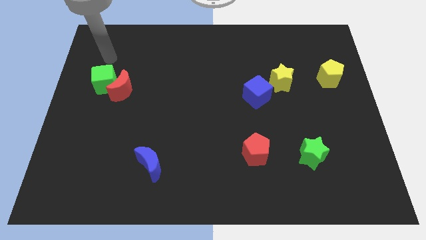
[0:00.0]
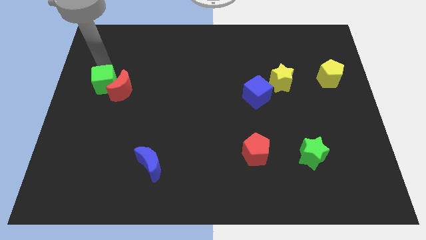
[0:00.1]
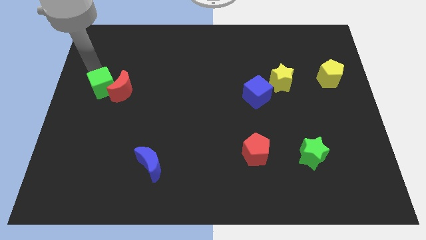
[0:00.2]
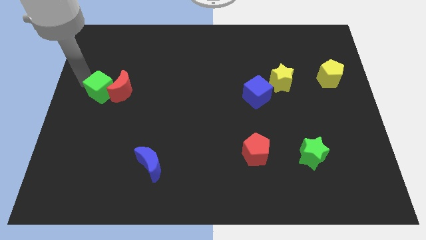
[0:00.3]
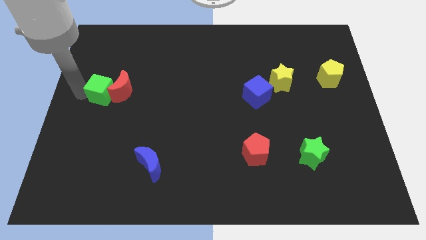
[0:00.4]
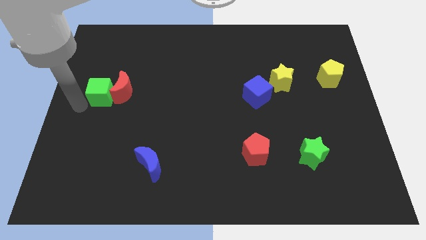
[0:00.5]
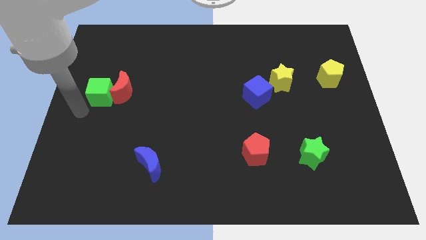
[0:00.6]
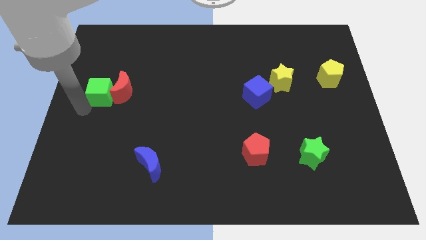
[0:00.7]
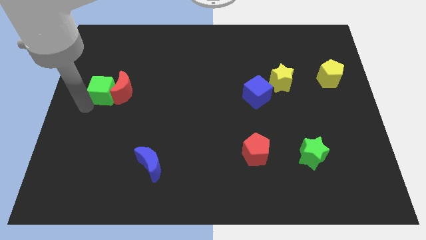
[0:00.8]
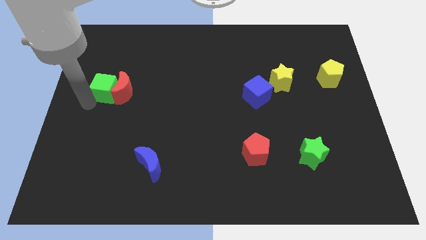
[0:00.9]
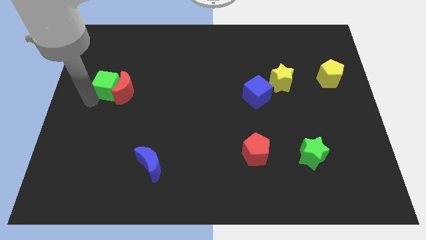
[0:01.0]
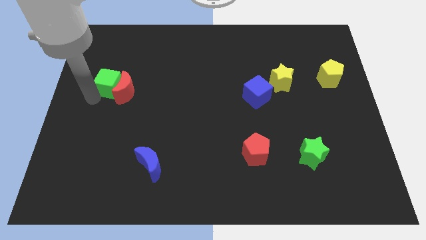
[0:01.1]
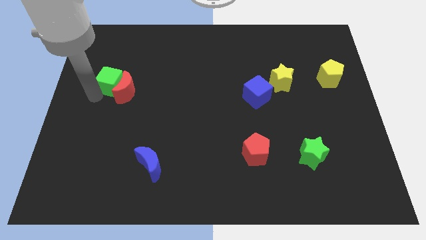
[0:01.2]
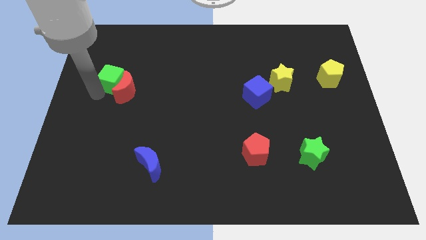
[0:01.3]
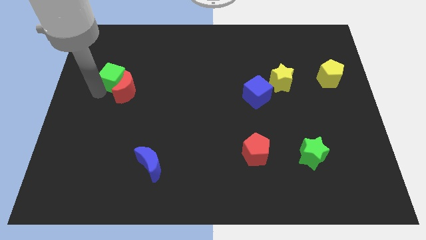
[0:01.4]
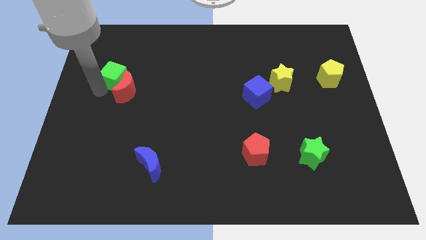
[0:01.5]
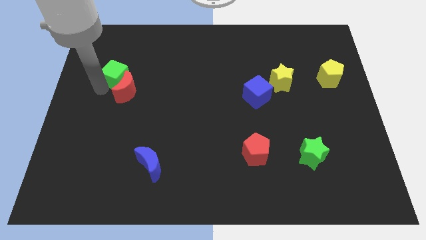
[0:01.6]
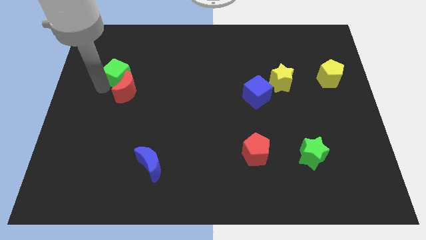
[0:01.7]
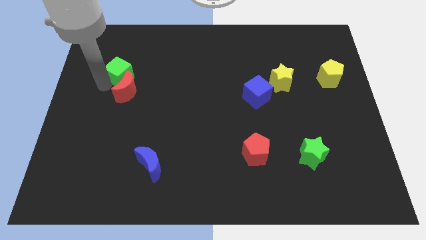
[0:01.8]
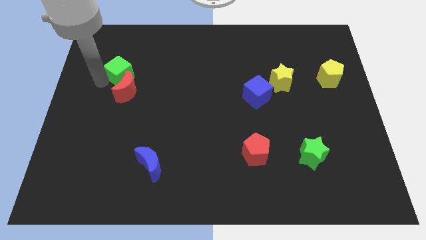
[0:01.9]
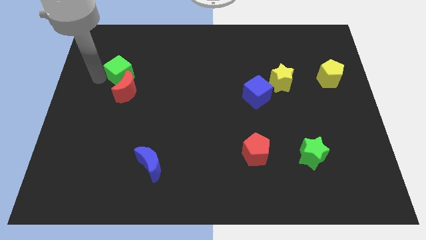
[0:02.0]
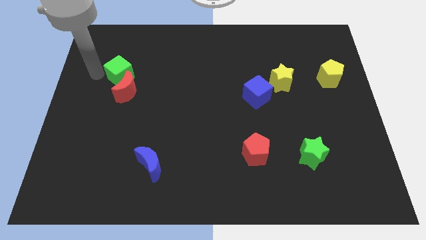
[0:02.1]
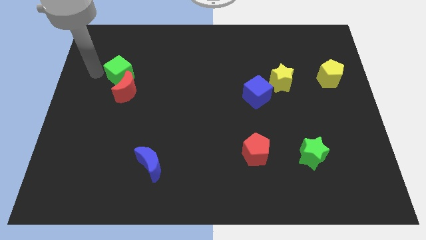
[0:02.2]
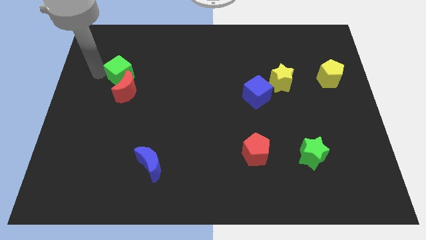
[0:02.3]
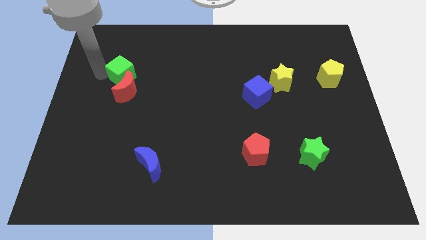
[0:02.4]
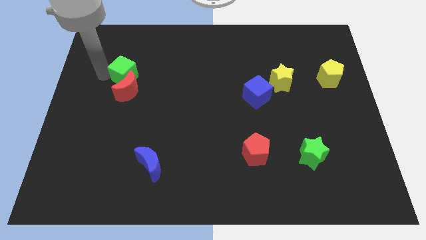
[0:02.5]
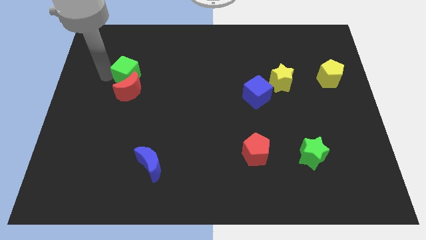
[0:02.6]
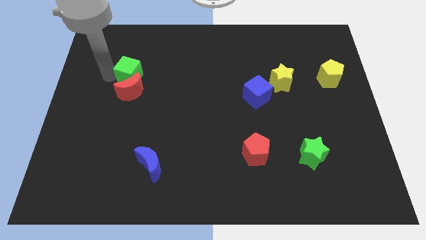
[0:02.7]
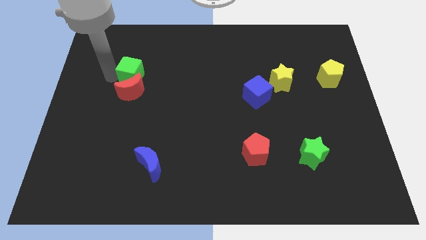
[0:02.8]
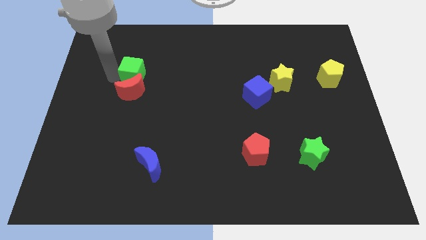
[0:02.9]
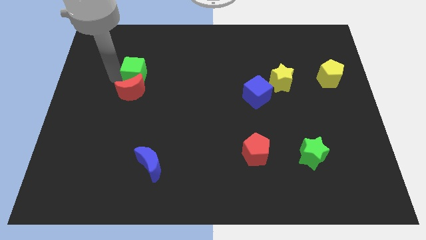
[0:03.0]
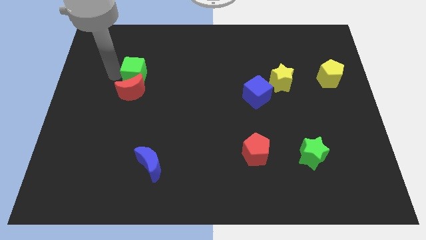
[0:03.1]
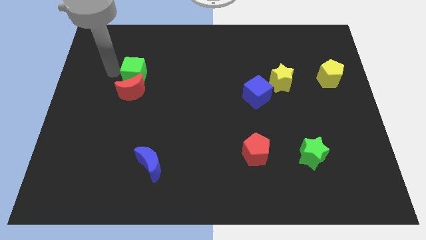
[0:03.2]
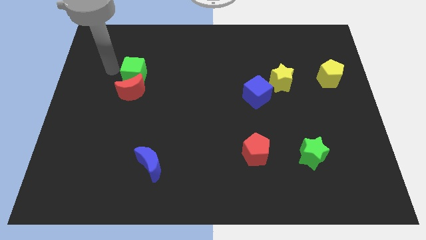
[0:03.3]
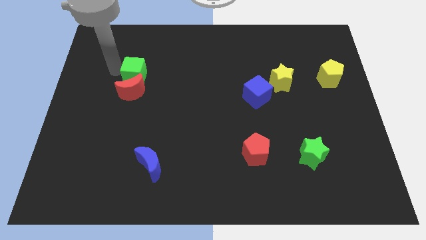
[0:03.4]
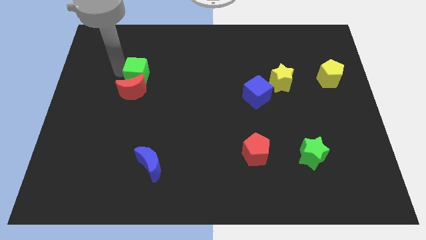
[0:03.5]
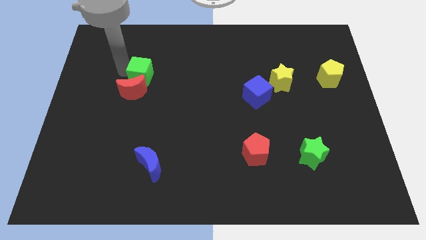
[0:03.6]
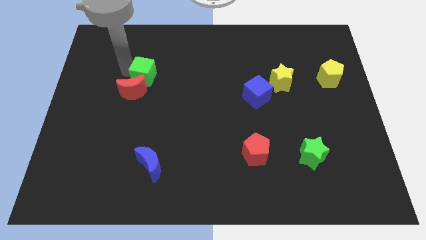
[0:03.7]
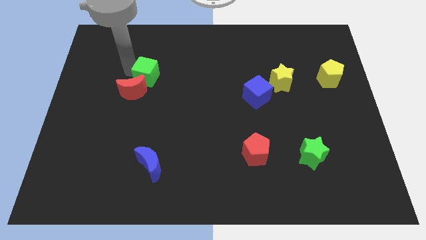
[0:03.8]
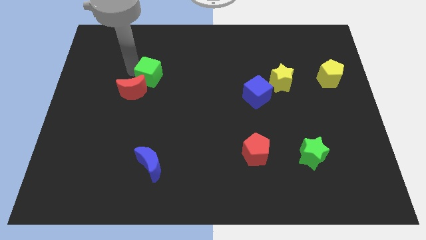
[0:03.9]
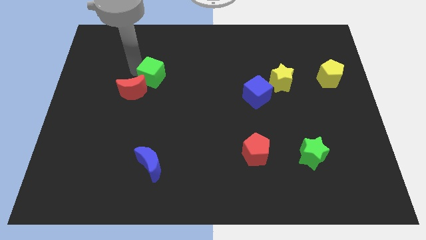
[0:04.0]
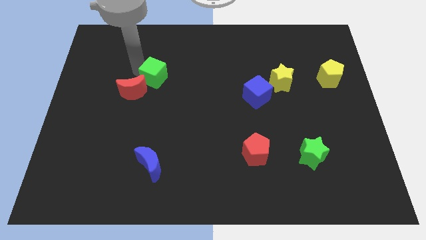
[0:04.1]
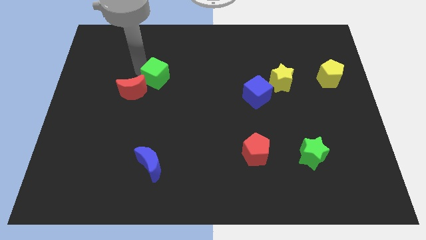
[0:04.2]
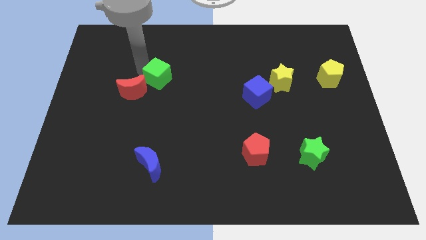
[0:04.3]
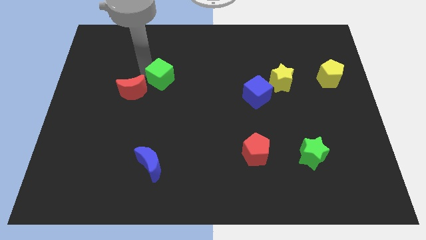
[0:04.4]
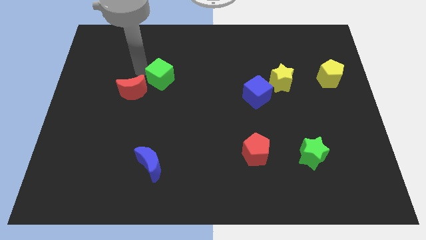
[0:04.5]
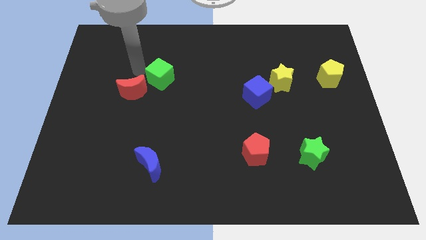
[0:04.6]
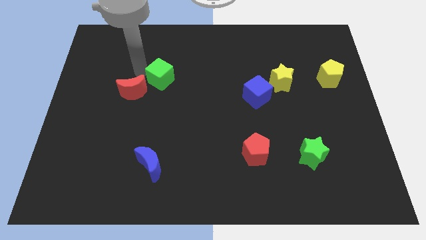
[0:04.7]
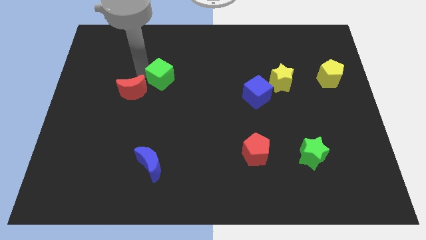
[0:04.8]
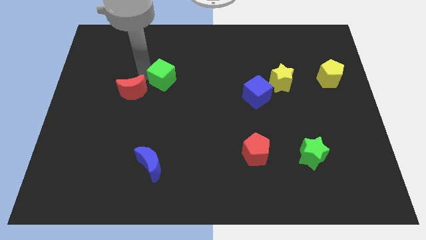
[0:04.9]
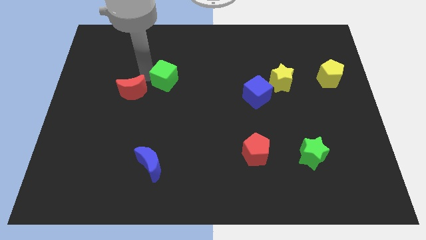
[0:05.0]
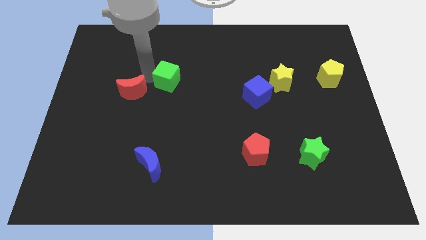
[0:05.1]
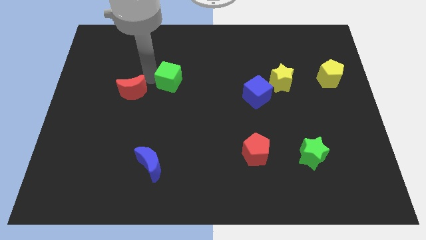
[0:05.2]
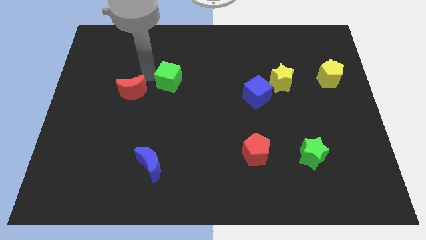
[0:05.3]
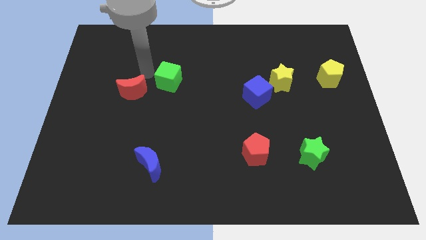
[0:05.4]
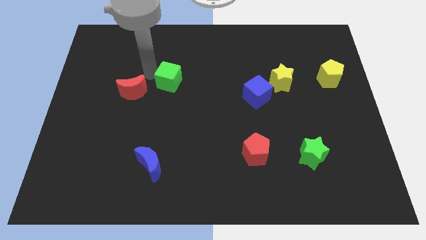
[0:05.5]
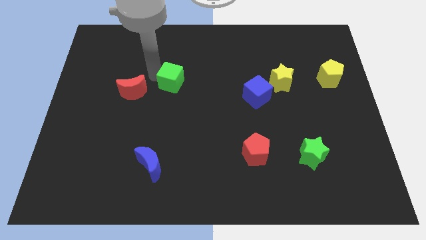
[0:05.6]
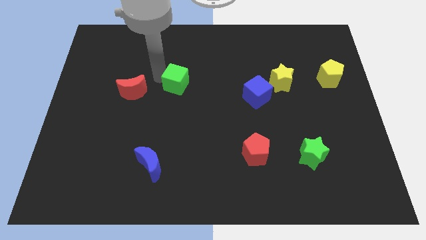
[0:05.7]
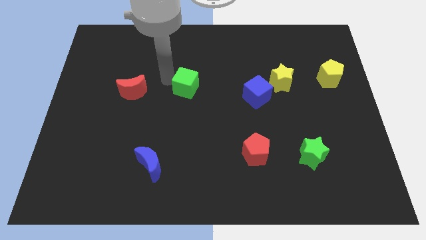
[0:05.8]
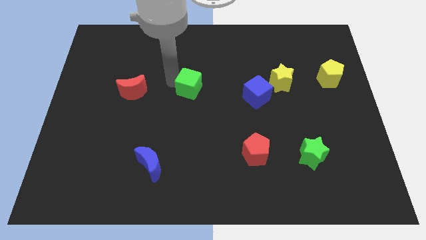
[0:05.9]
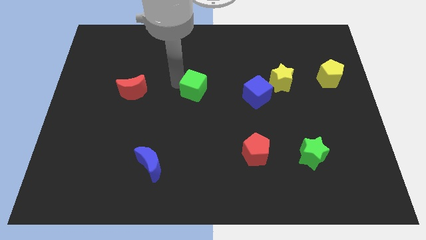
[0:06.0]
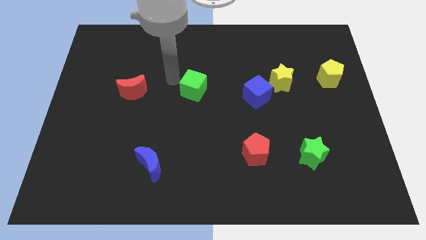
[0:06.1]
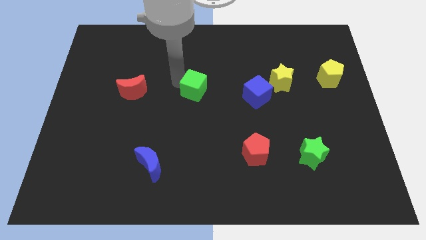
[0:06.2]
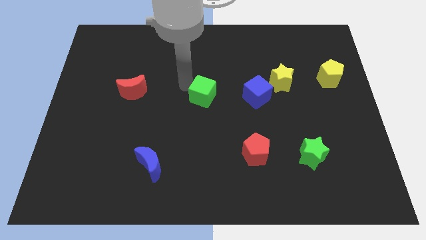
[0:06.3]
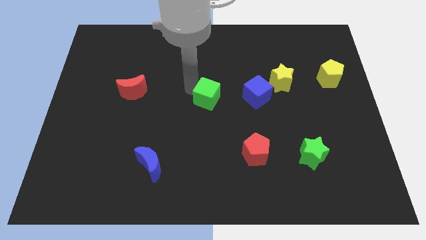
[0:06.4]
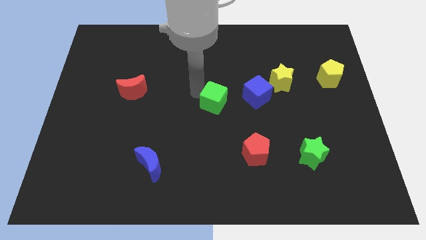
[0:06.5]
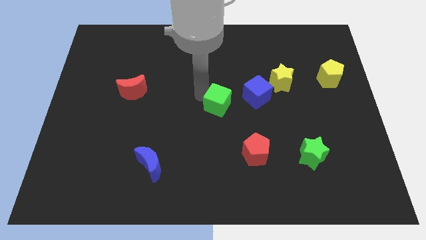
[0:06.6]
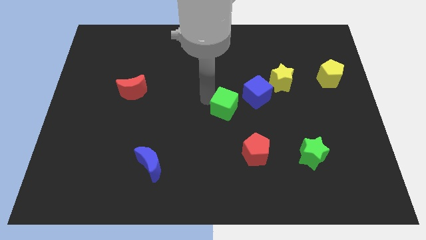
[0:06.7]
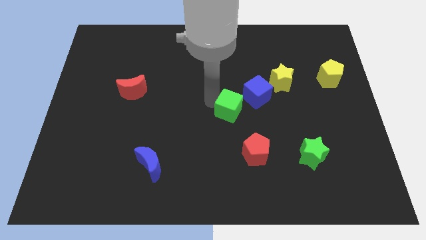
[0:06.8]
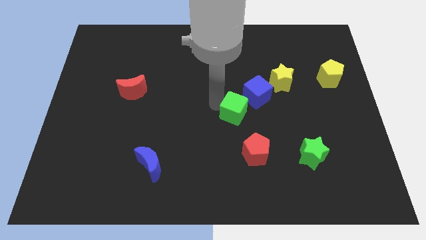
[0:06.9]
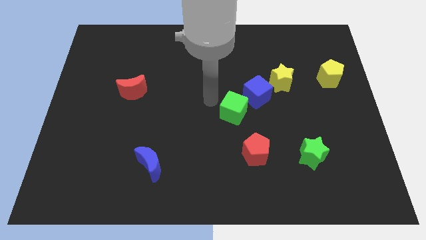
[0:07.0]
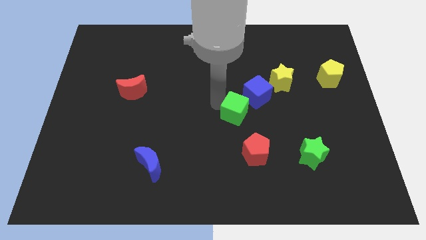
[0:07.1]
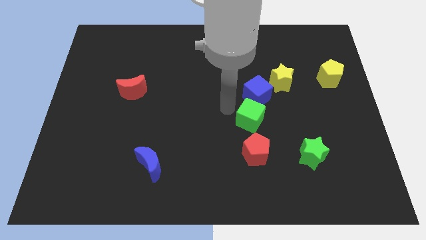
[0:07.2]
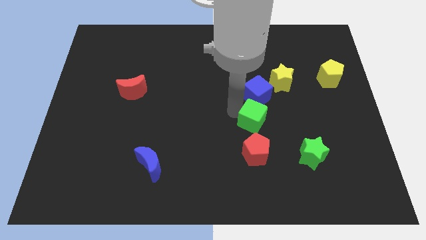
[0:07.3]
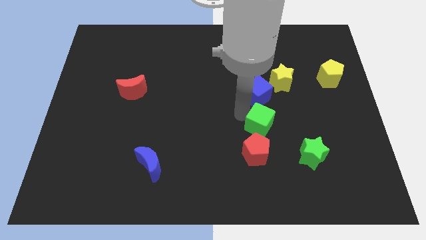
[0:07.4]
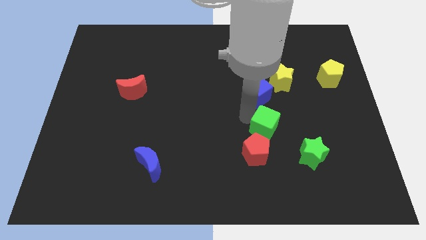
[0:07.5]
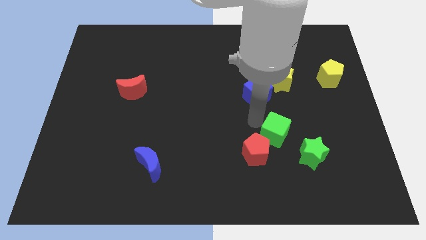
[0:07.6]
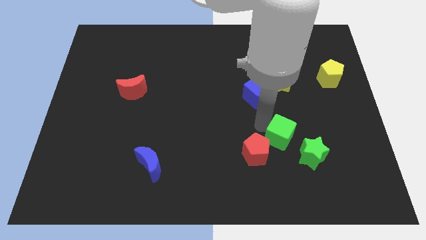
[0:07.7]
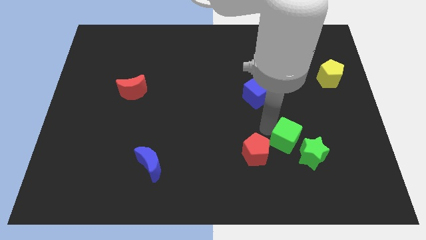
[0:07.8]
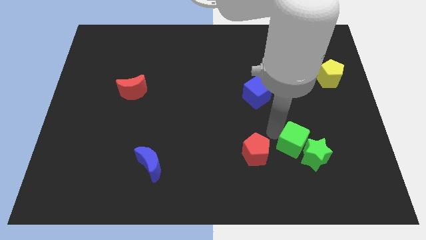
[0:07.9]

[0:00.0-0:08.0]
push the green cube to the green star
